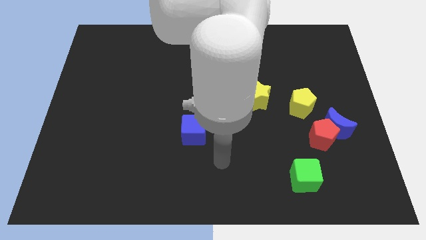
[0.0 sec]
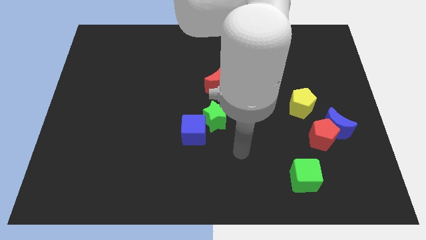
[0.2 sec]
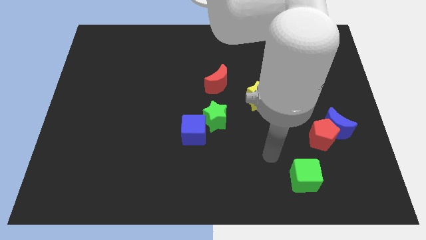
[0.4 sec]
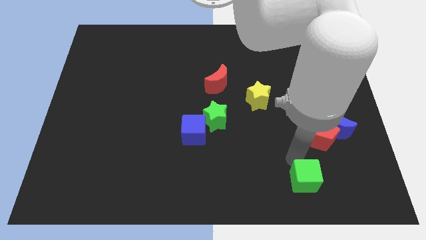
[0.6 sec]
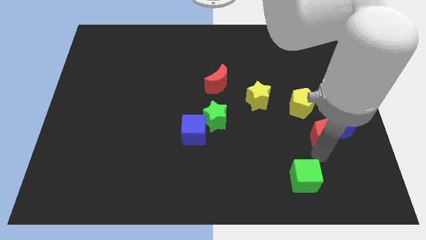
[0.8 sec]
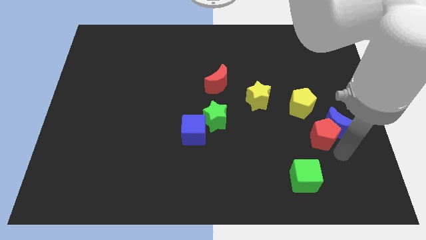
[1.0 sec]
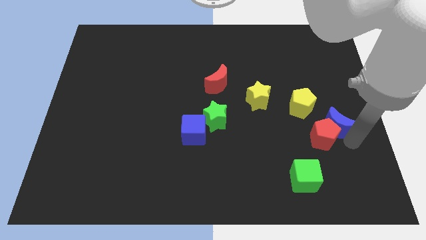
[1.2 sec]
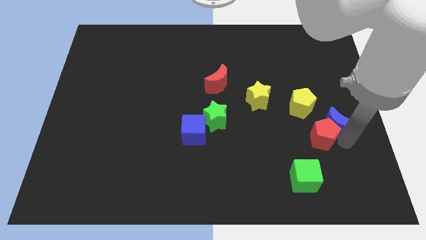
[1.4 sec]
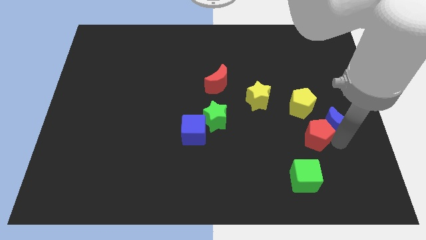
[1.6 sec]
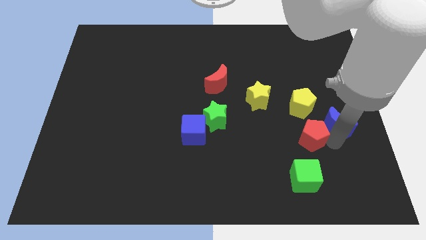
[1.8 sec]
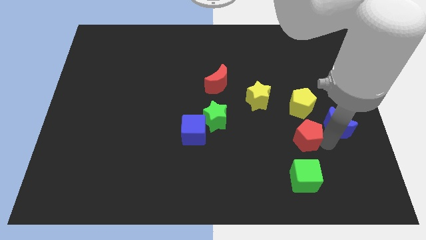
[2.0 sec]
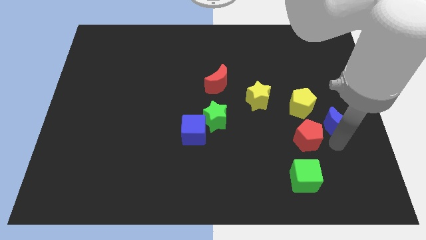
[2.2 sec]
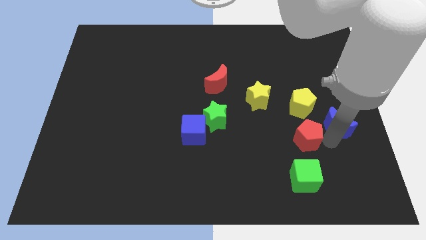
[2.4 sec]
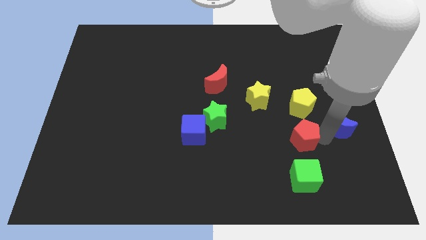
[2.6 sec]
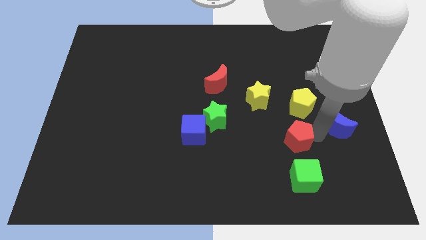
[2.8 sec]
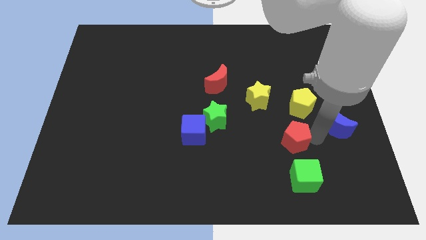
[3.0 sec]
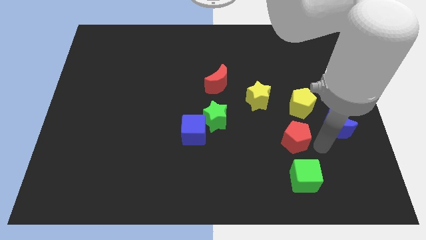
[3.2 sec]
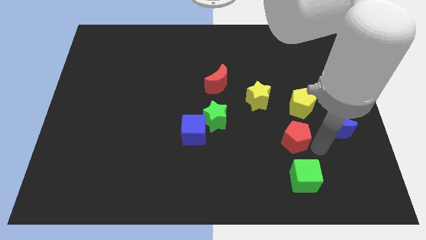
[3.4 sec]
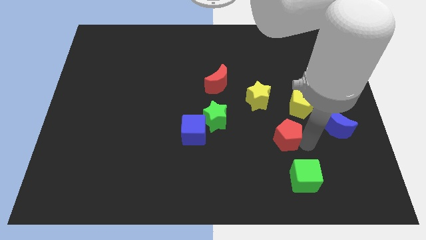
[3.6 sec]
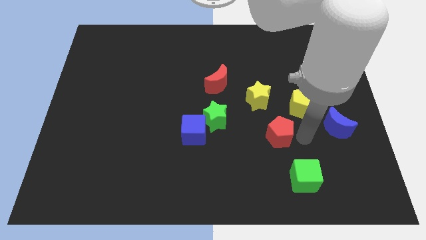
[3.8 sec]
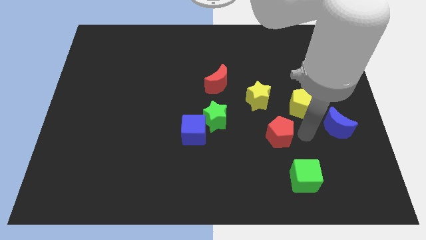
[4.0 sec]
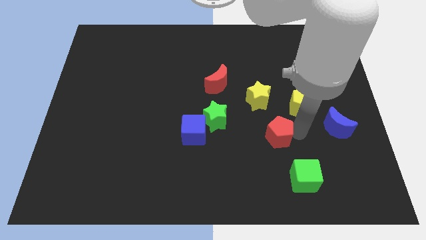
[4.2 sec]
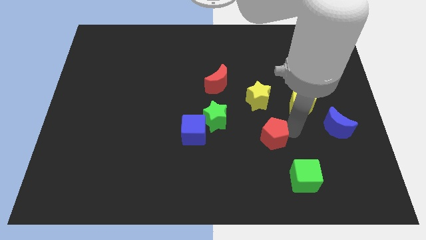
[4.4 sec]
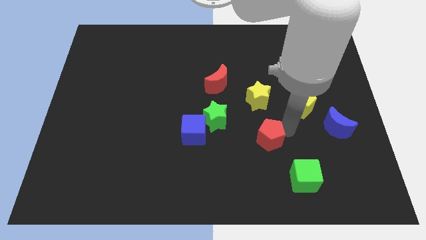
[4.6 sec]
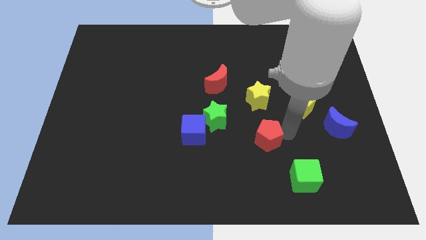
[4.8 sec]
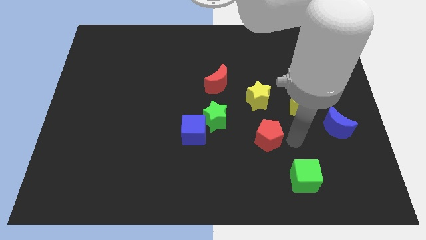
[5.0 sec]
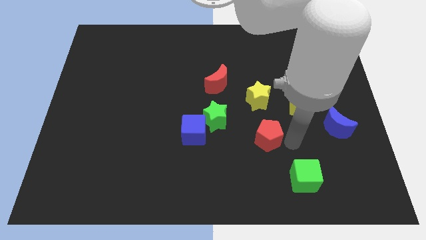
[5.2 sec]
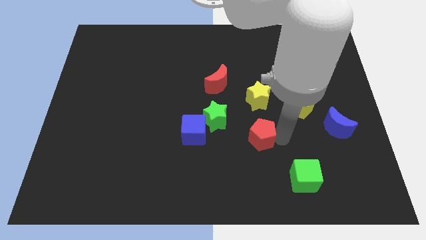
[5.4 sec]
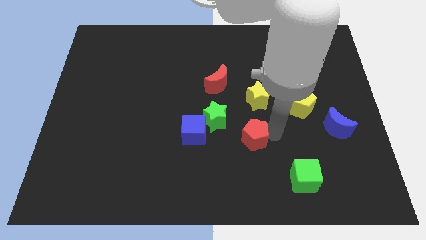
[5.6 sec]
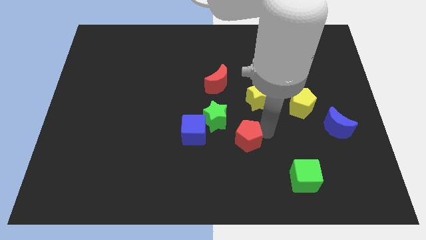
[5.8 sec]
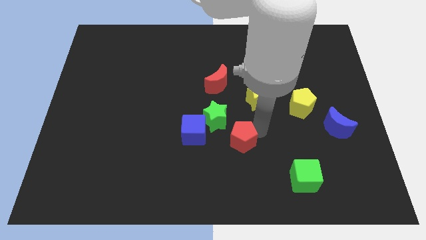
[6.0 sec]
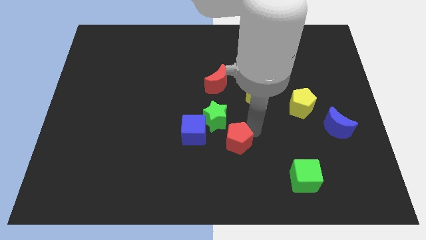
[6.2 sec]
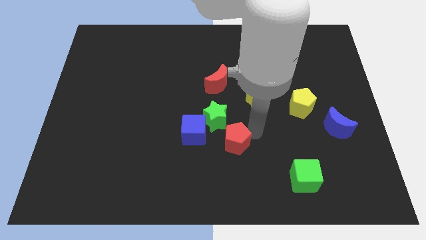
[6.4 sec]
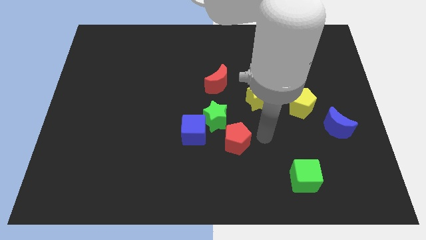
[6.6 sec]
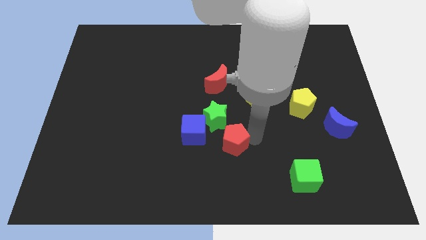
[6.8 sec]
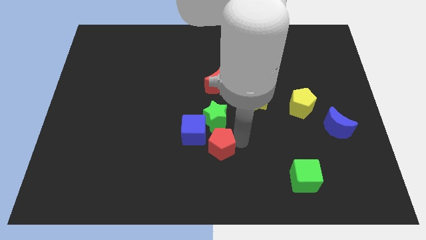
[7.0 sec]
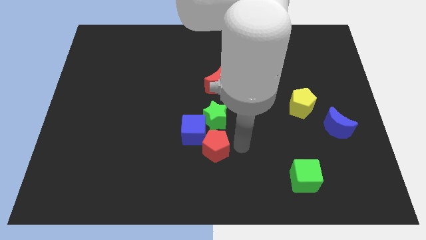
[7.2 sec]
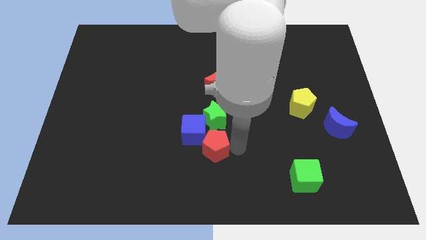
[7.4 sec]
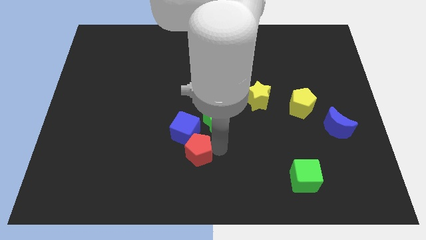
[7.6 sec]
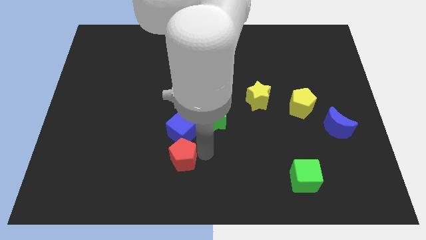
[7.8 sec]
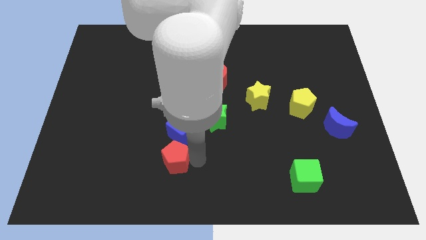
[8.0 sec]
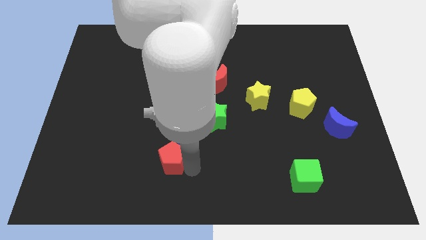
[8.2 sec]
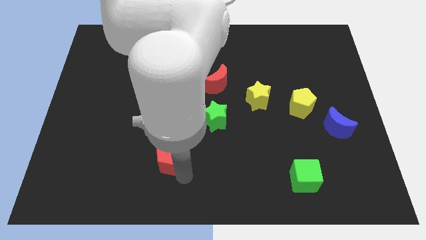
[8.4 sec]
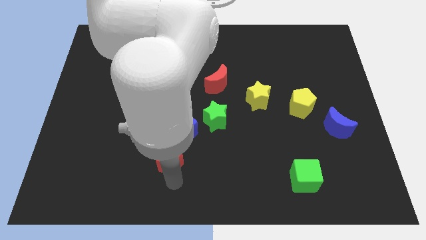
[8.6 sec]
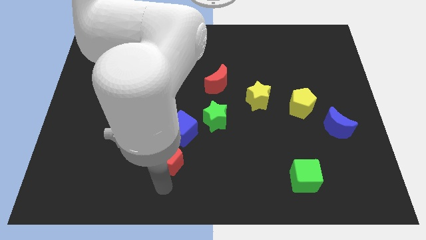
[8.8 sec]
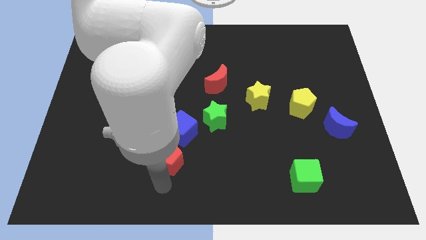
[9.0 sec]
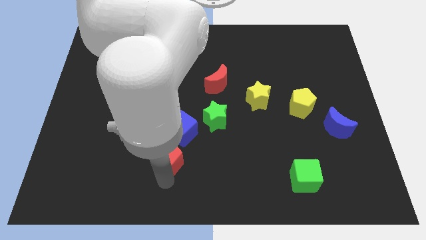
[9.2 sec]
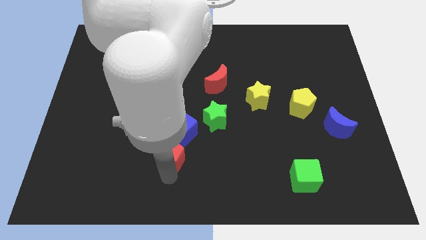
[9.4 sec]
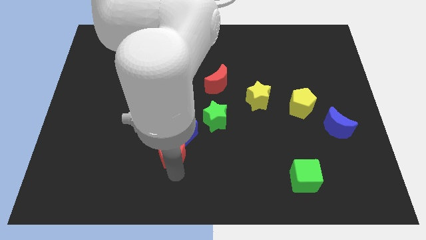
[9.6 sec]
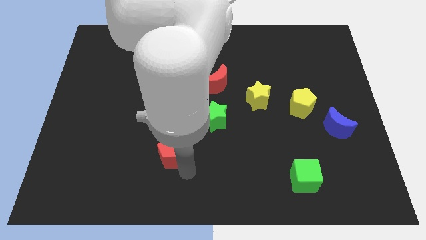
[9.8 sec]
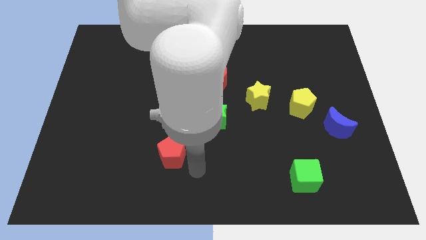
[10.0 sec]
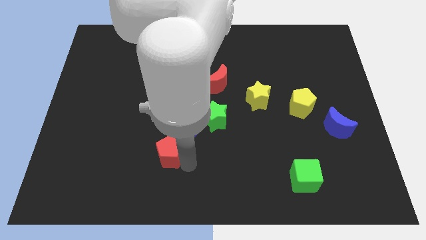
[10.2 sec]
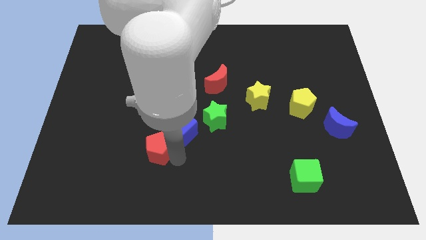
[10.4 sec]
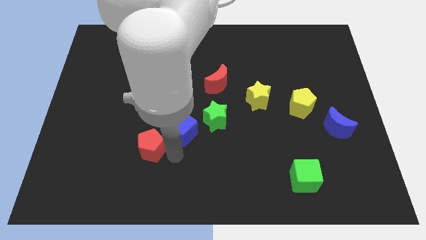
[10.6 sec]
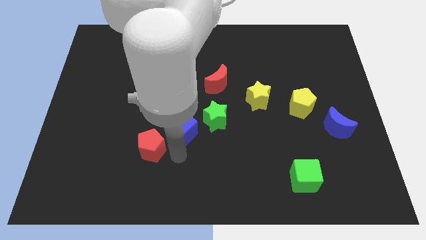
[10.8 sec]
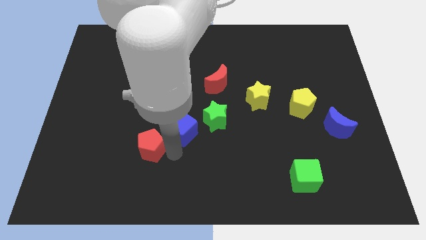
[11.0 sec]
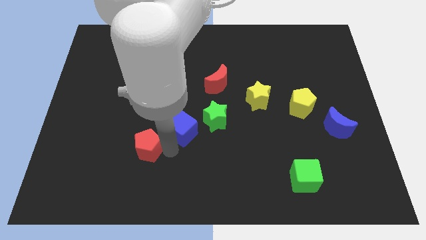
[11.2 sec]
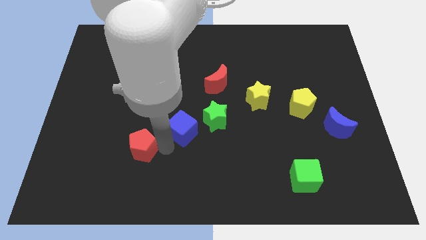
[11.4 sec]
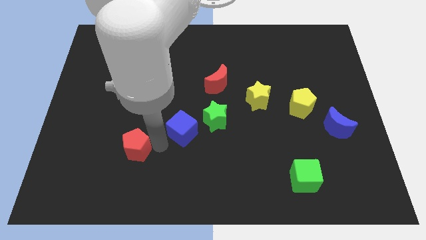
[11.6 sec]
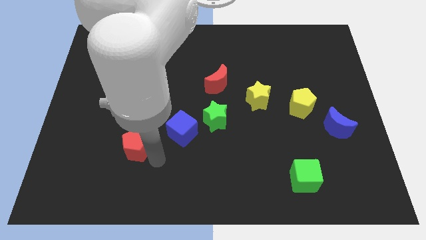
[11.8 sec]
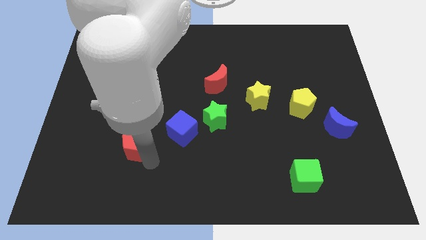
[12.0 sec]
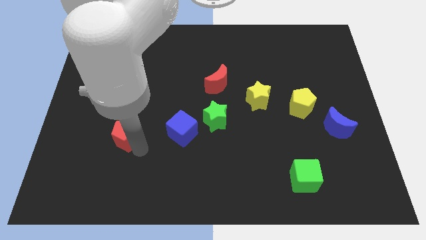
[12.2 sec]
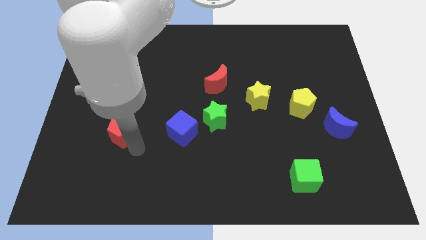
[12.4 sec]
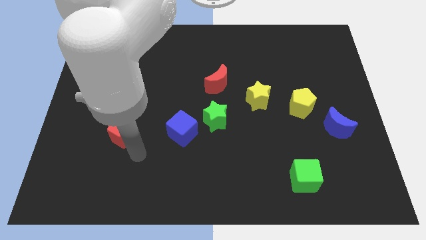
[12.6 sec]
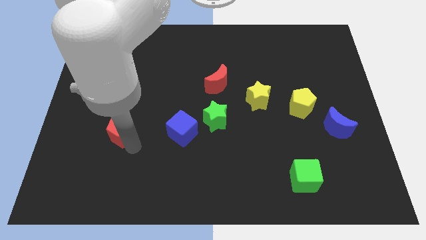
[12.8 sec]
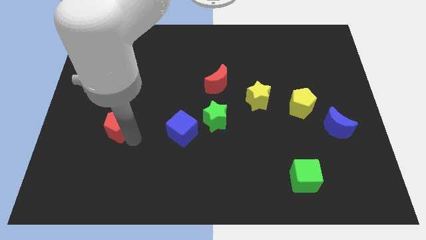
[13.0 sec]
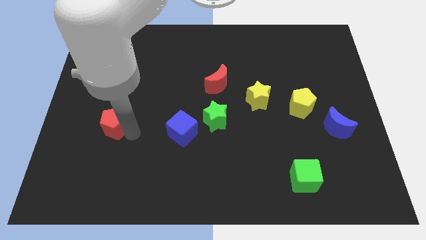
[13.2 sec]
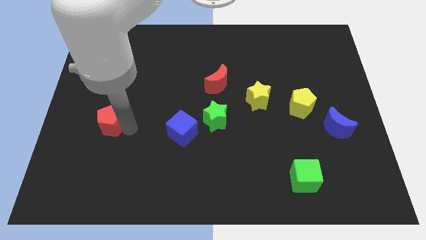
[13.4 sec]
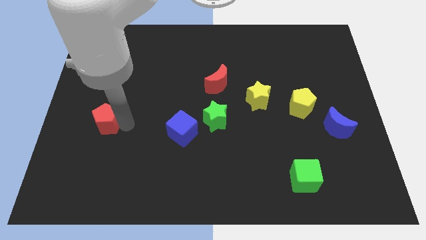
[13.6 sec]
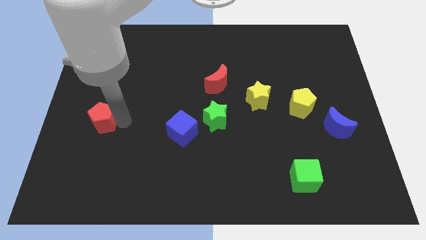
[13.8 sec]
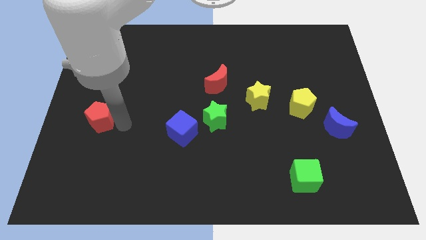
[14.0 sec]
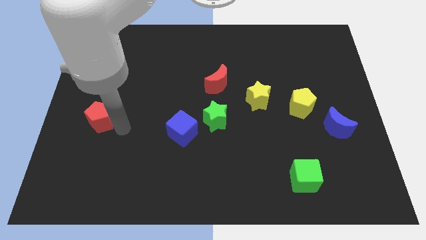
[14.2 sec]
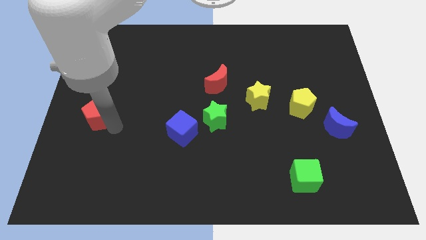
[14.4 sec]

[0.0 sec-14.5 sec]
slide the red pentagon to the left side of the board
